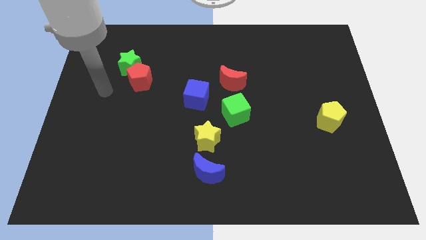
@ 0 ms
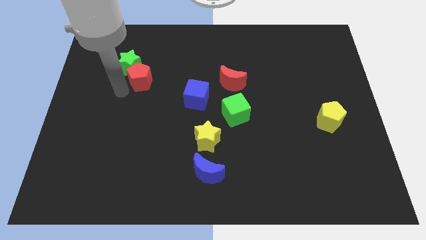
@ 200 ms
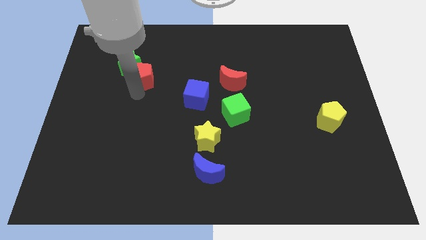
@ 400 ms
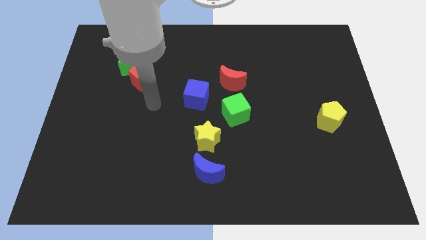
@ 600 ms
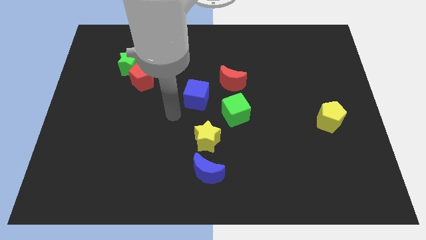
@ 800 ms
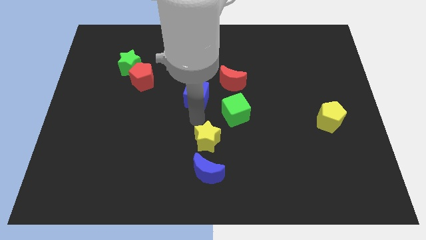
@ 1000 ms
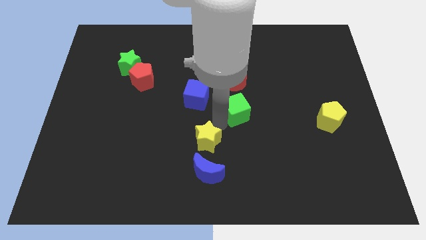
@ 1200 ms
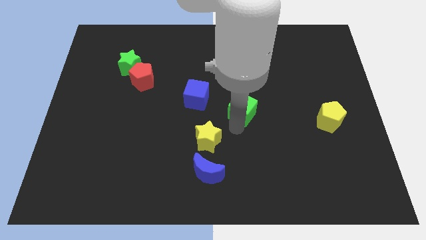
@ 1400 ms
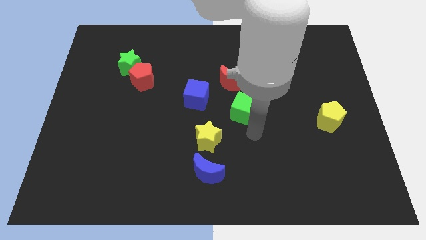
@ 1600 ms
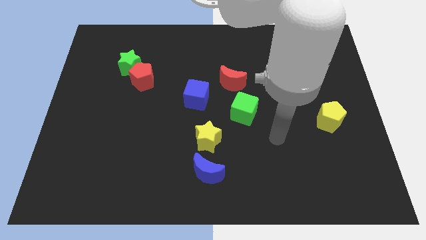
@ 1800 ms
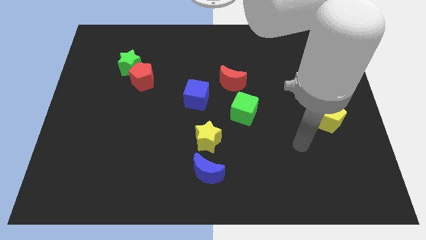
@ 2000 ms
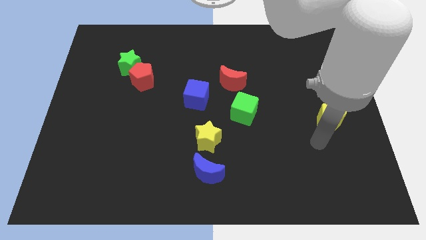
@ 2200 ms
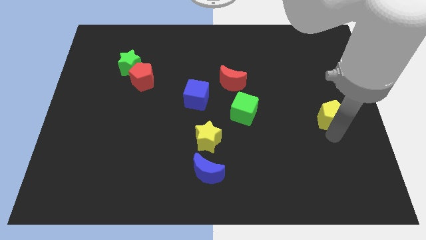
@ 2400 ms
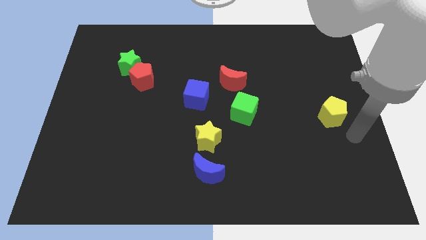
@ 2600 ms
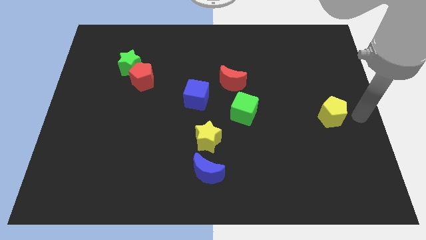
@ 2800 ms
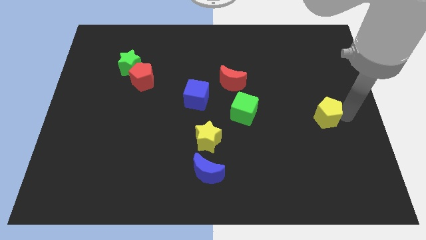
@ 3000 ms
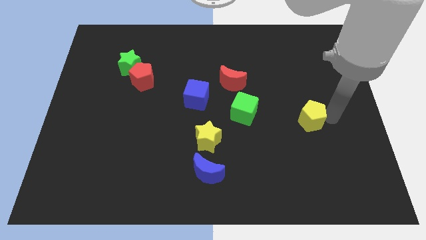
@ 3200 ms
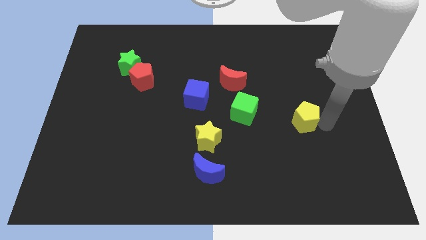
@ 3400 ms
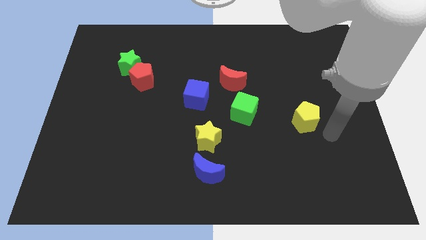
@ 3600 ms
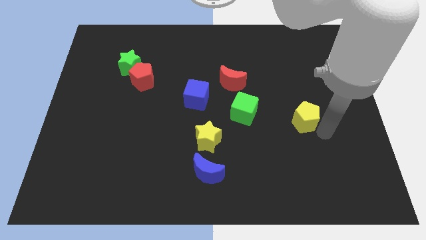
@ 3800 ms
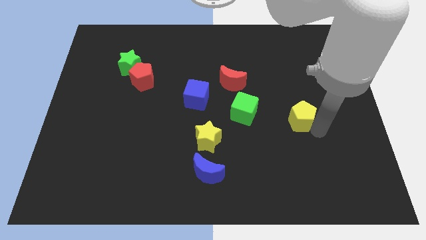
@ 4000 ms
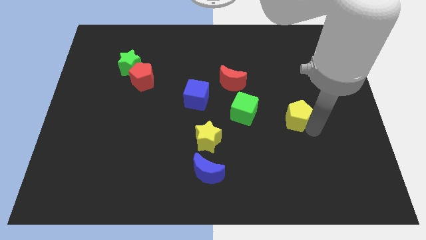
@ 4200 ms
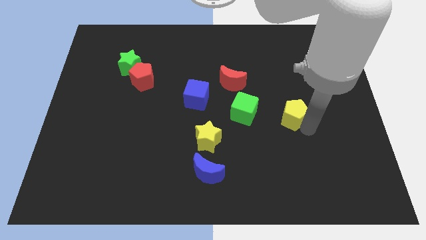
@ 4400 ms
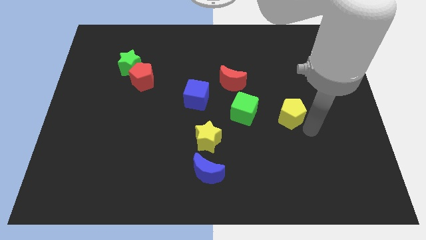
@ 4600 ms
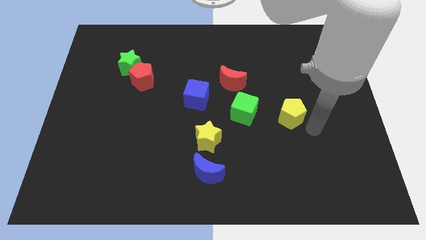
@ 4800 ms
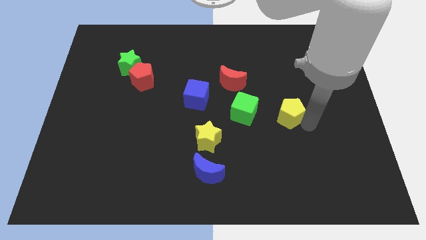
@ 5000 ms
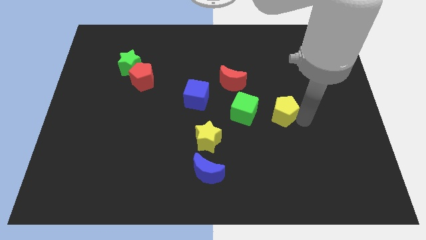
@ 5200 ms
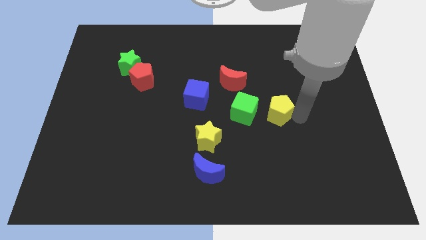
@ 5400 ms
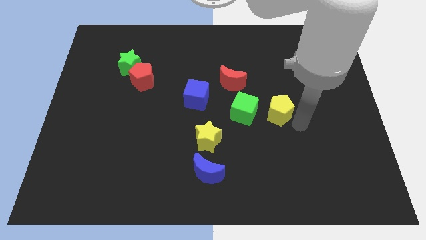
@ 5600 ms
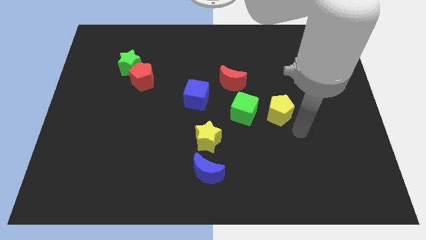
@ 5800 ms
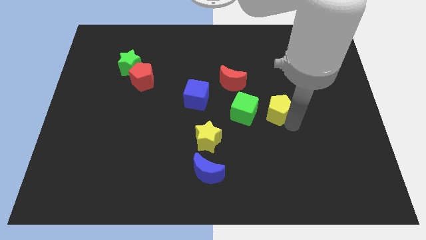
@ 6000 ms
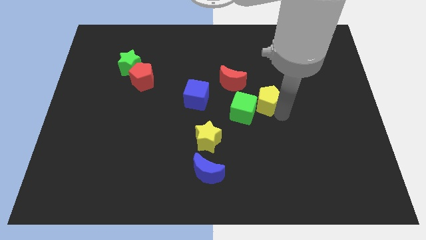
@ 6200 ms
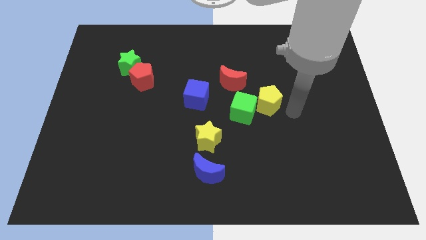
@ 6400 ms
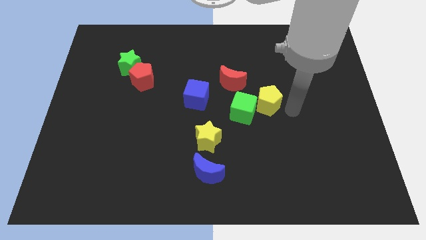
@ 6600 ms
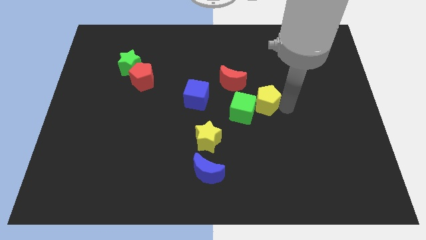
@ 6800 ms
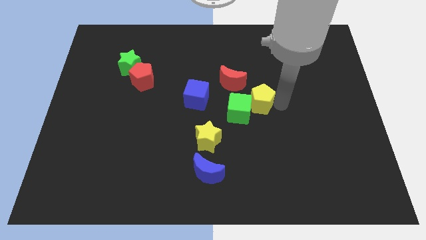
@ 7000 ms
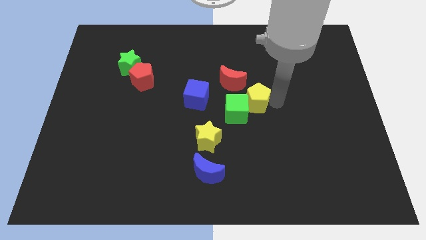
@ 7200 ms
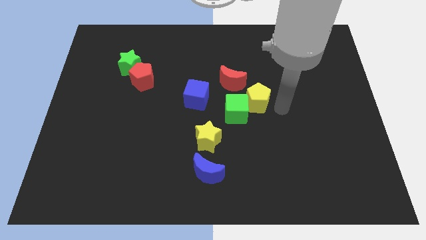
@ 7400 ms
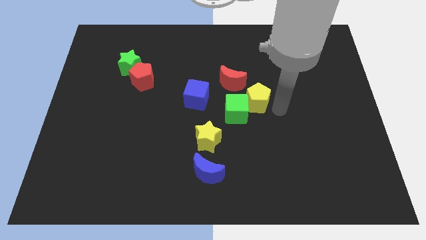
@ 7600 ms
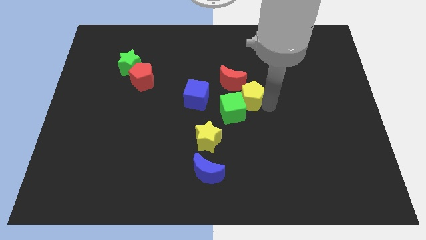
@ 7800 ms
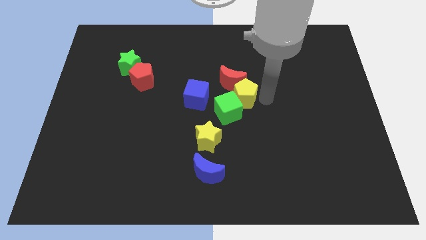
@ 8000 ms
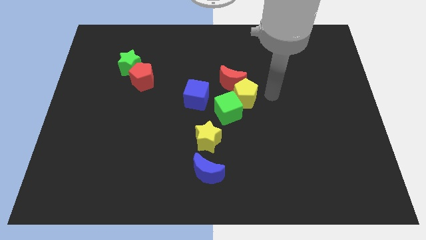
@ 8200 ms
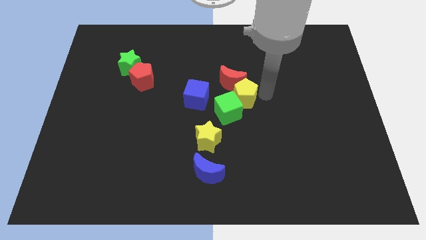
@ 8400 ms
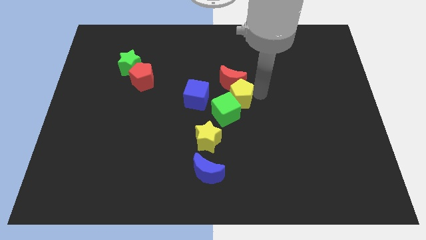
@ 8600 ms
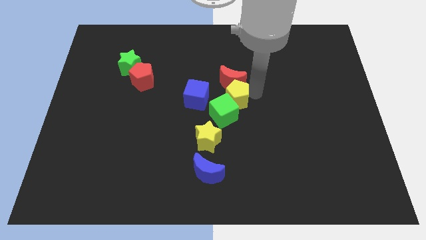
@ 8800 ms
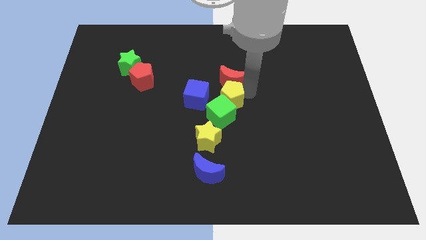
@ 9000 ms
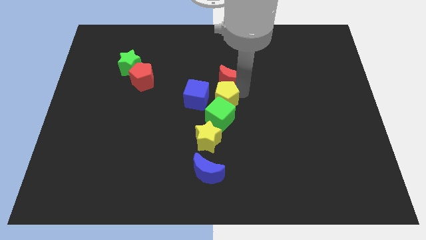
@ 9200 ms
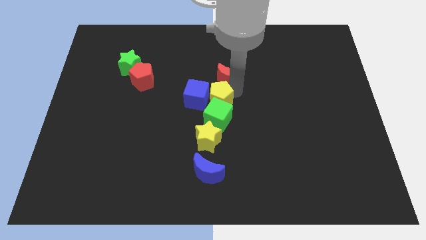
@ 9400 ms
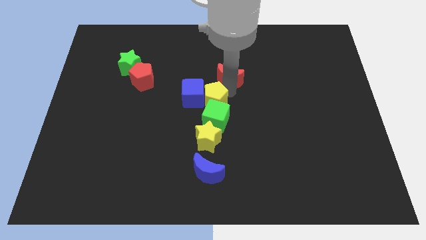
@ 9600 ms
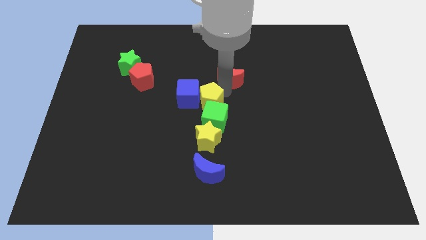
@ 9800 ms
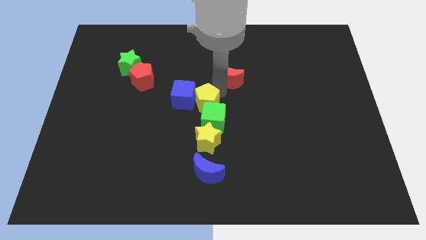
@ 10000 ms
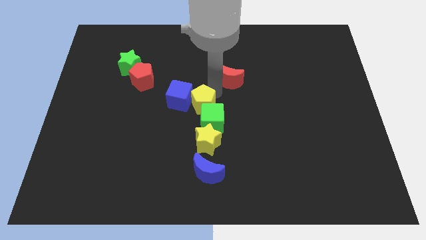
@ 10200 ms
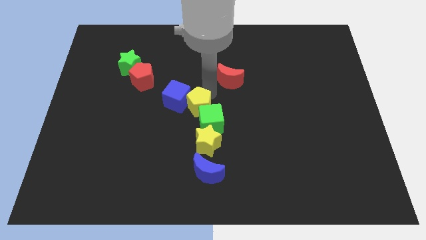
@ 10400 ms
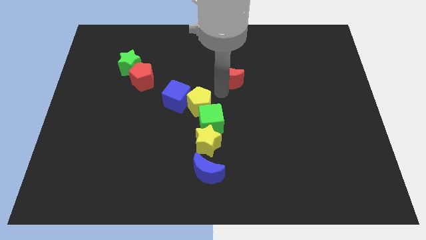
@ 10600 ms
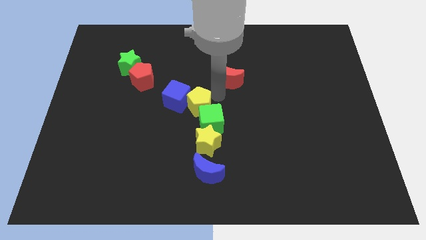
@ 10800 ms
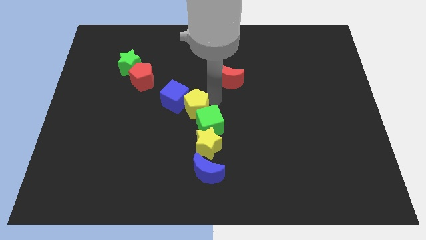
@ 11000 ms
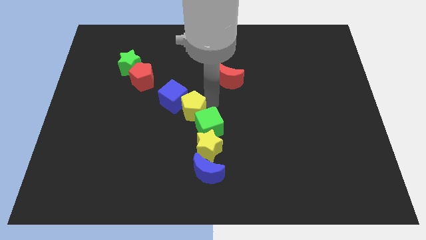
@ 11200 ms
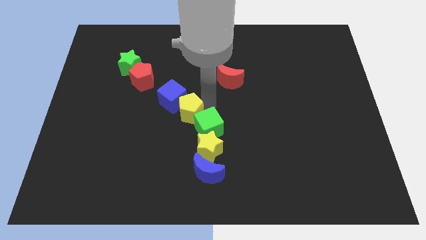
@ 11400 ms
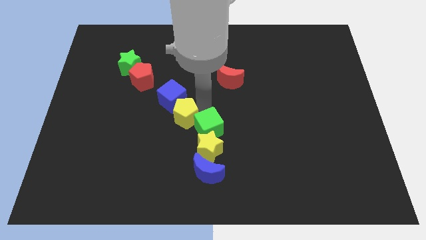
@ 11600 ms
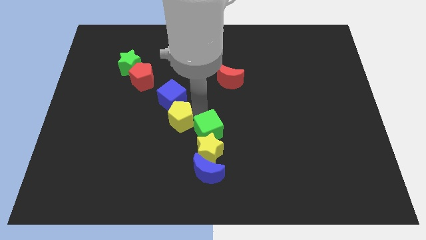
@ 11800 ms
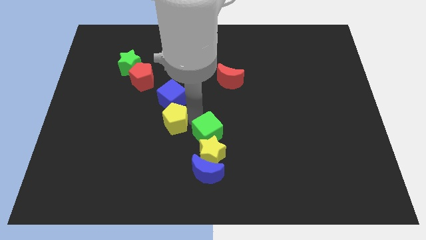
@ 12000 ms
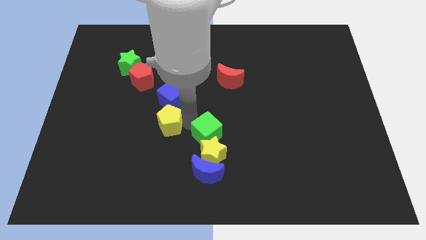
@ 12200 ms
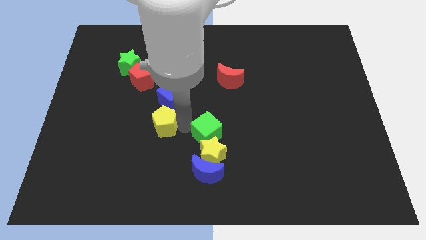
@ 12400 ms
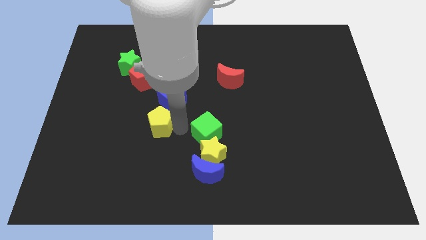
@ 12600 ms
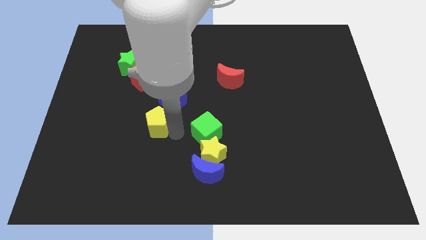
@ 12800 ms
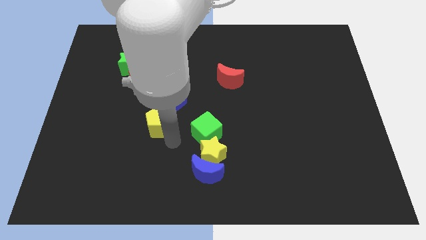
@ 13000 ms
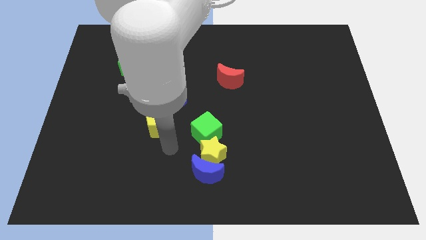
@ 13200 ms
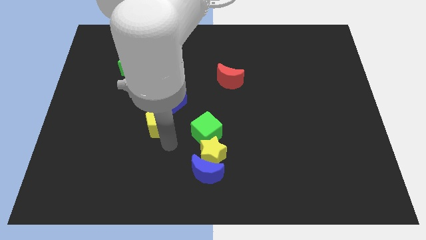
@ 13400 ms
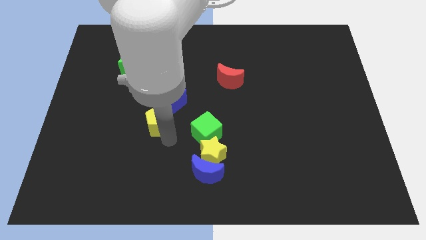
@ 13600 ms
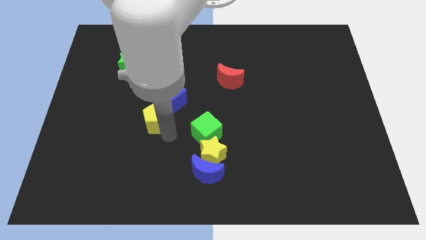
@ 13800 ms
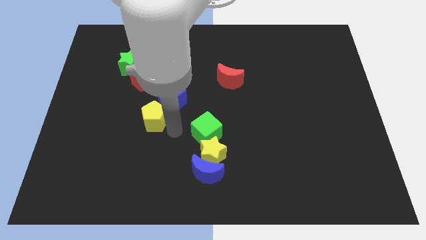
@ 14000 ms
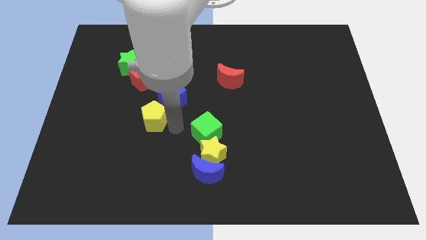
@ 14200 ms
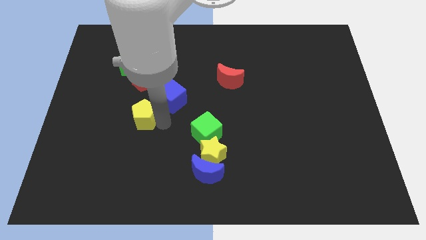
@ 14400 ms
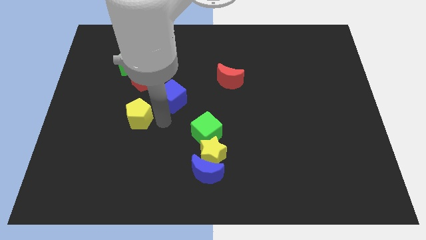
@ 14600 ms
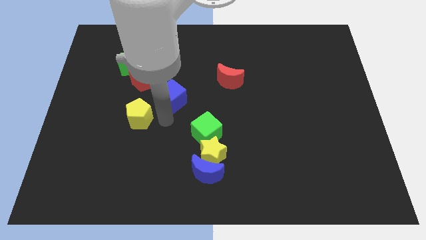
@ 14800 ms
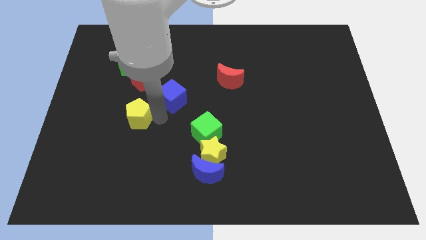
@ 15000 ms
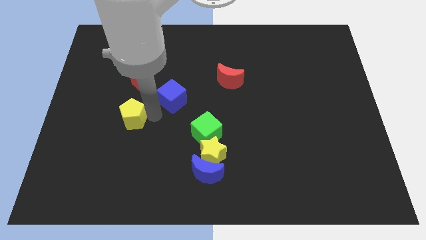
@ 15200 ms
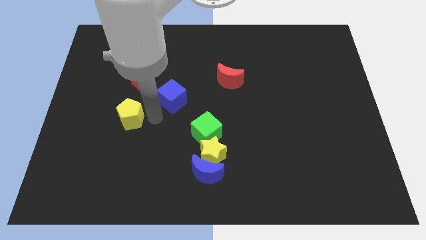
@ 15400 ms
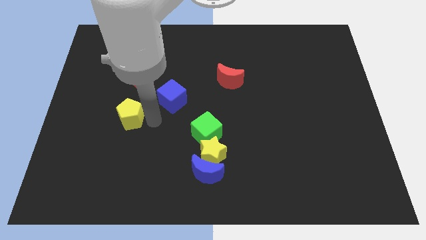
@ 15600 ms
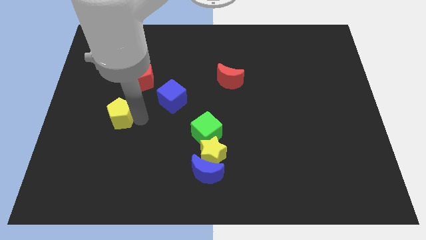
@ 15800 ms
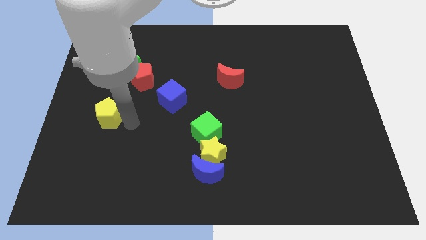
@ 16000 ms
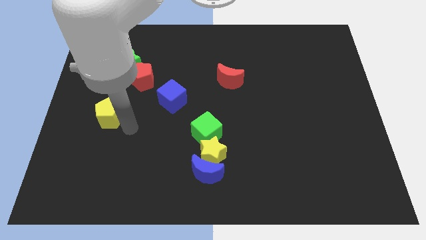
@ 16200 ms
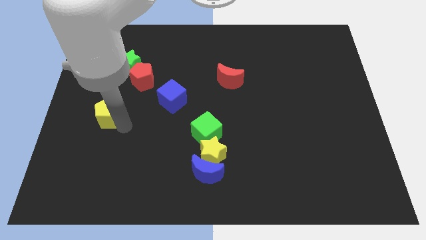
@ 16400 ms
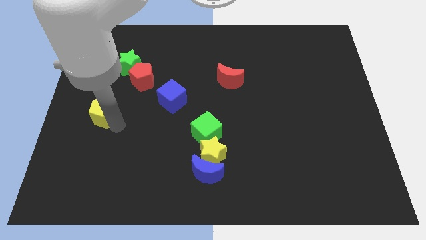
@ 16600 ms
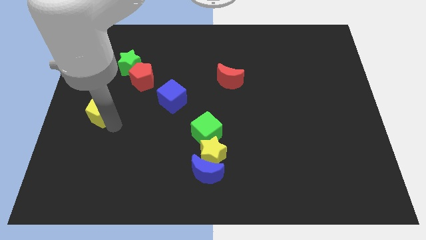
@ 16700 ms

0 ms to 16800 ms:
push the yellow pentagon to the left side of the board
